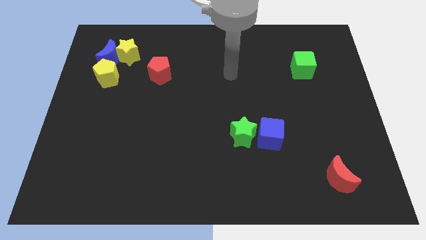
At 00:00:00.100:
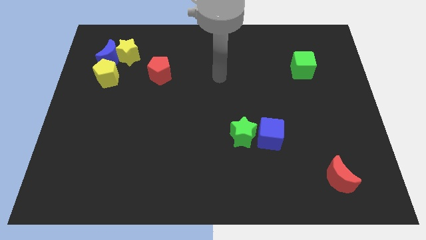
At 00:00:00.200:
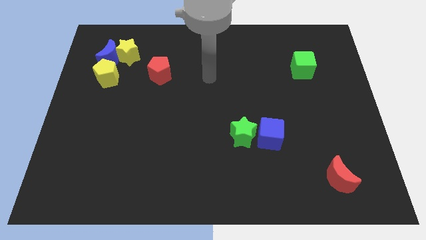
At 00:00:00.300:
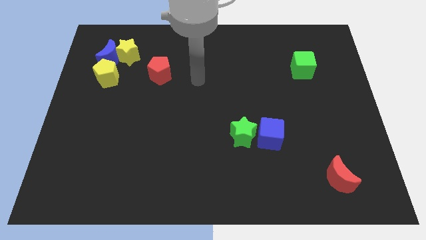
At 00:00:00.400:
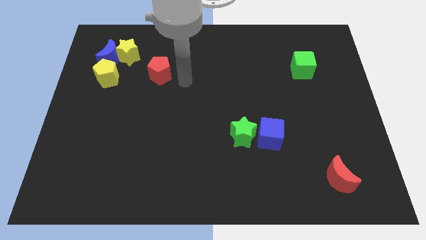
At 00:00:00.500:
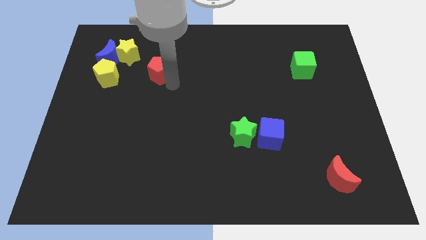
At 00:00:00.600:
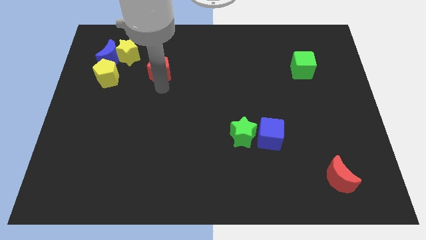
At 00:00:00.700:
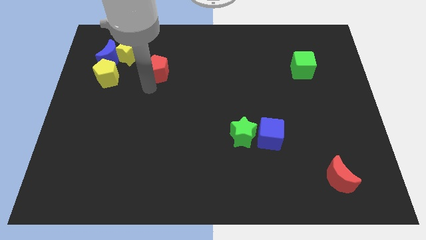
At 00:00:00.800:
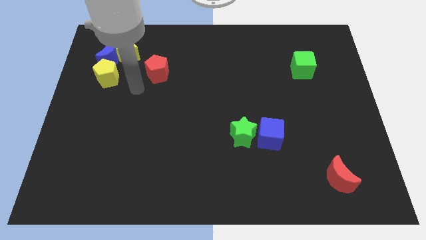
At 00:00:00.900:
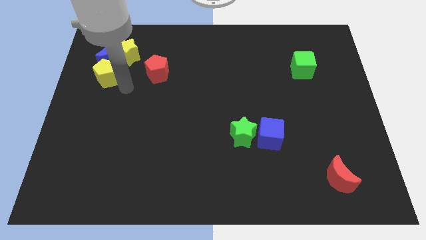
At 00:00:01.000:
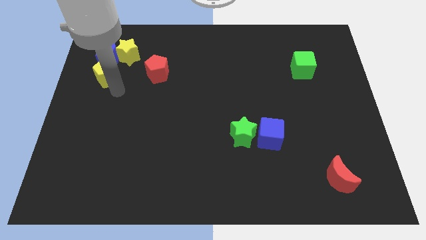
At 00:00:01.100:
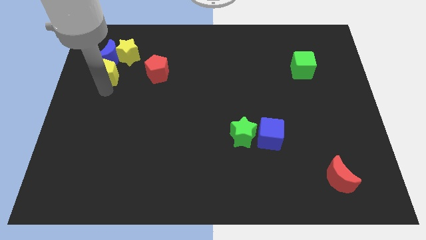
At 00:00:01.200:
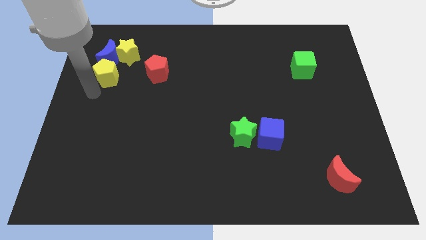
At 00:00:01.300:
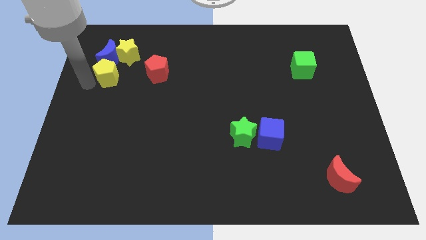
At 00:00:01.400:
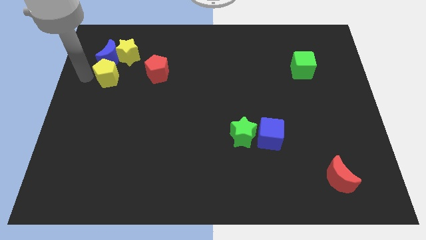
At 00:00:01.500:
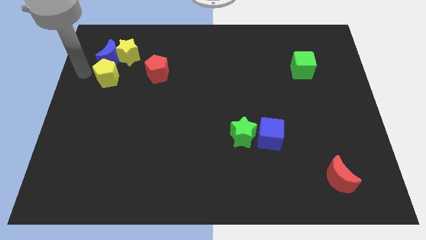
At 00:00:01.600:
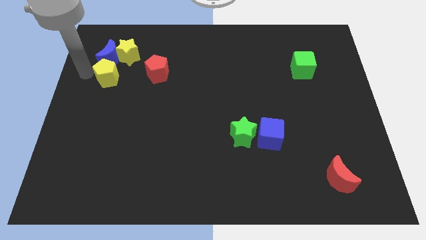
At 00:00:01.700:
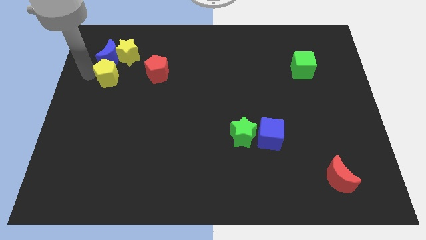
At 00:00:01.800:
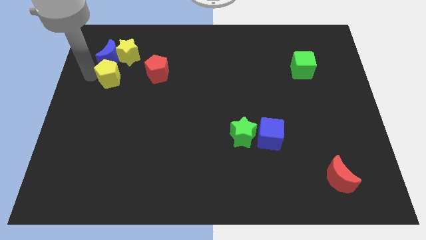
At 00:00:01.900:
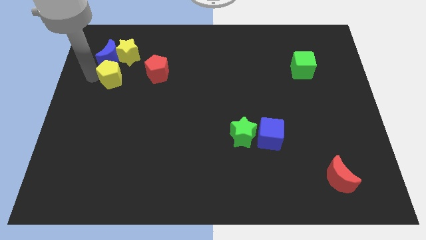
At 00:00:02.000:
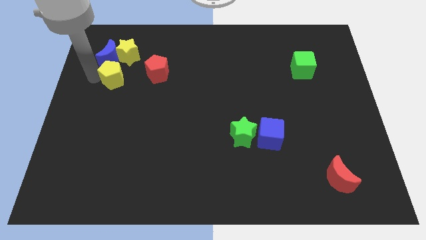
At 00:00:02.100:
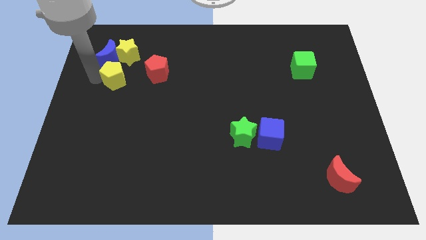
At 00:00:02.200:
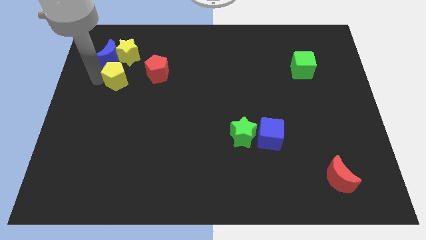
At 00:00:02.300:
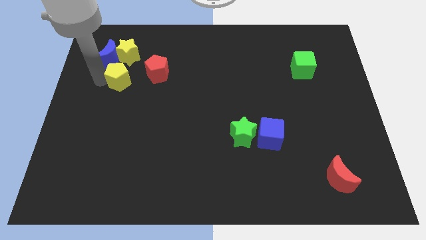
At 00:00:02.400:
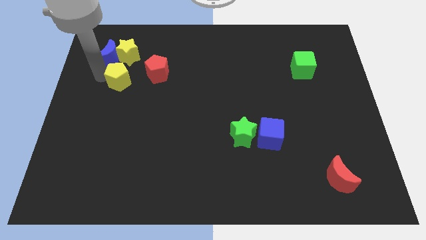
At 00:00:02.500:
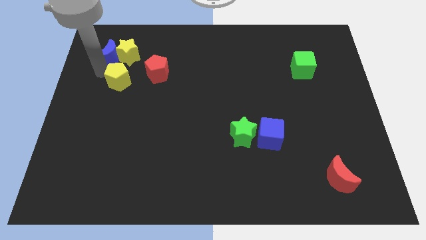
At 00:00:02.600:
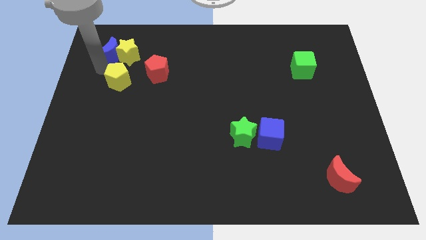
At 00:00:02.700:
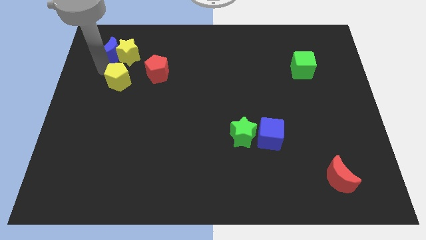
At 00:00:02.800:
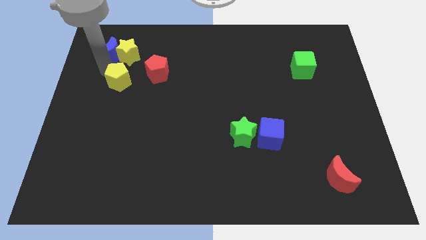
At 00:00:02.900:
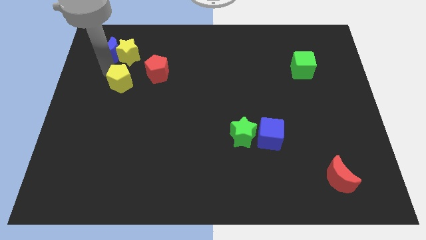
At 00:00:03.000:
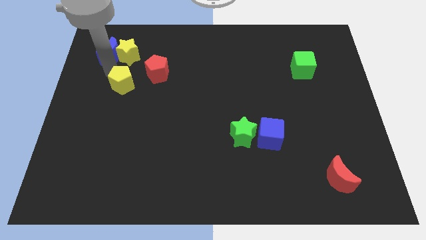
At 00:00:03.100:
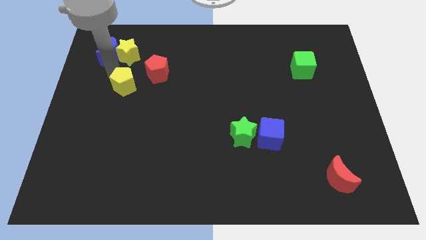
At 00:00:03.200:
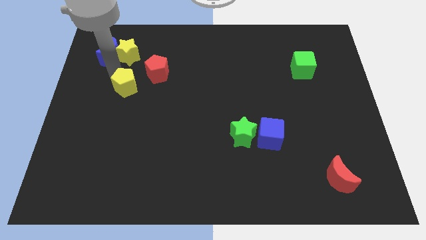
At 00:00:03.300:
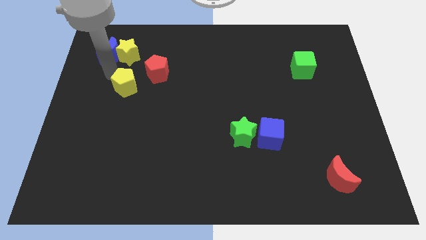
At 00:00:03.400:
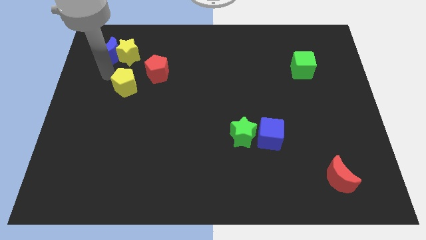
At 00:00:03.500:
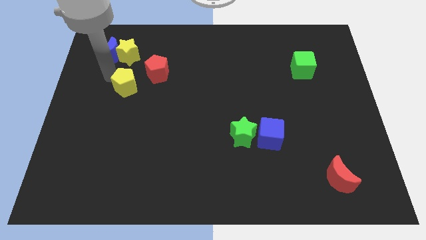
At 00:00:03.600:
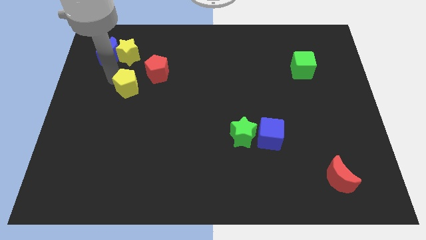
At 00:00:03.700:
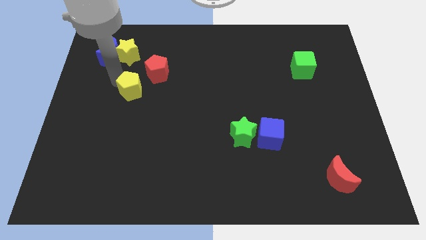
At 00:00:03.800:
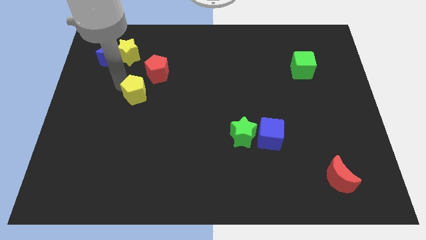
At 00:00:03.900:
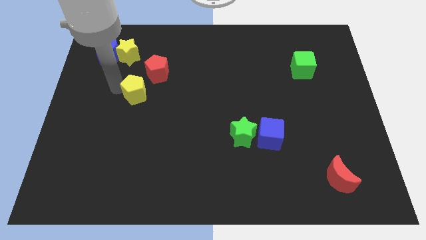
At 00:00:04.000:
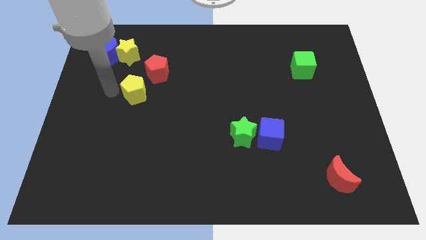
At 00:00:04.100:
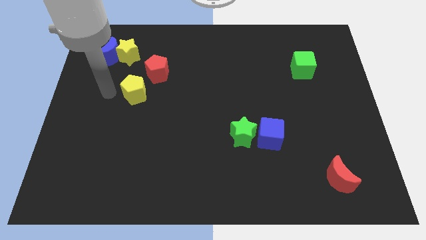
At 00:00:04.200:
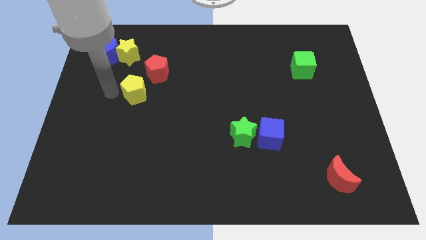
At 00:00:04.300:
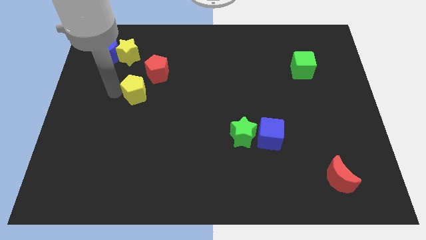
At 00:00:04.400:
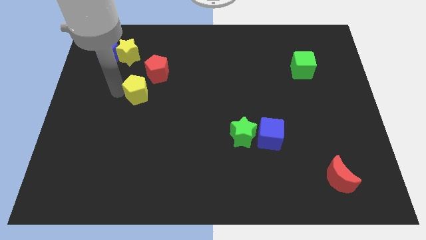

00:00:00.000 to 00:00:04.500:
slightly move the yellow pentagon to the right

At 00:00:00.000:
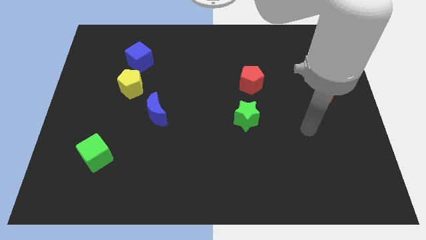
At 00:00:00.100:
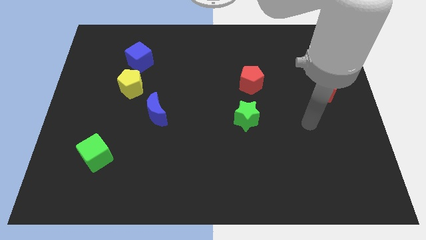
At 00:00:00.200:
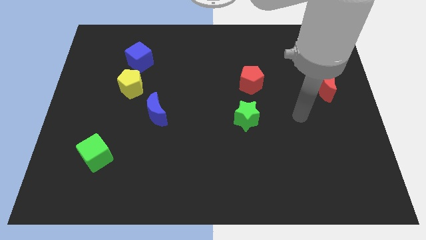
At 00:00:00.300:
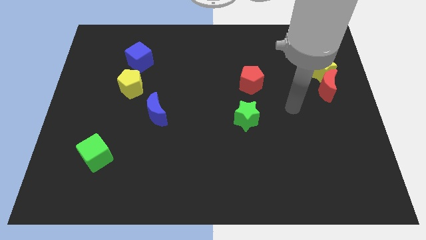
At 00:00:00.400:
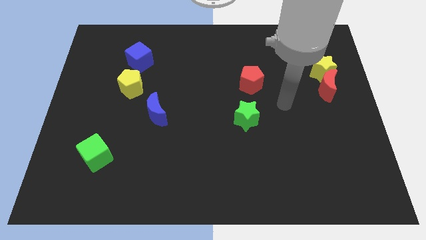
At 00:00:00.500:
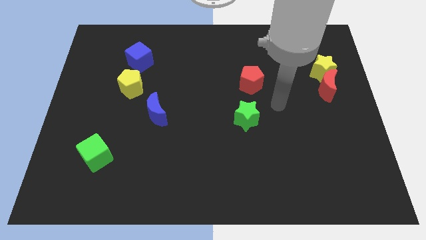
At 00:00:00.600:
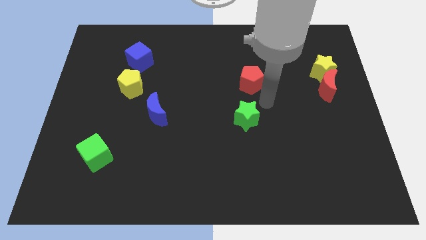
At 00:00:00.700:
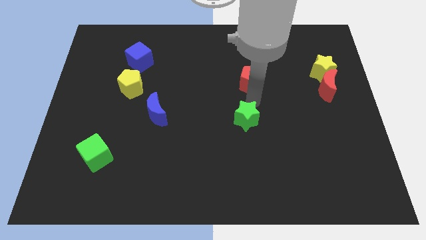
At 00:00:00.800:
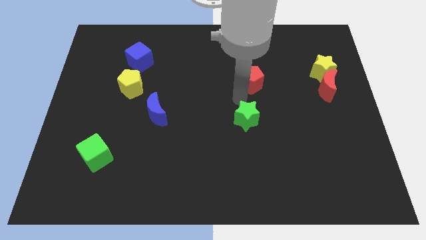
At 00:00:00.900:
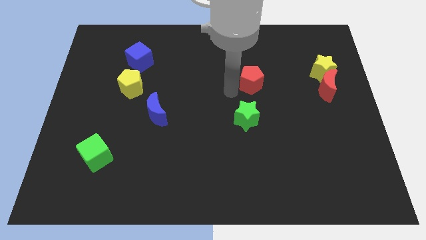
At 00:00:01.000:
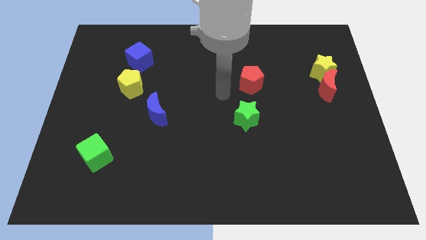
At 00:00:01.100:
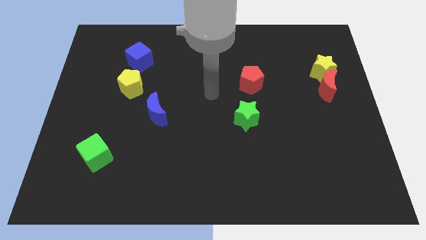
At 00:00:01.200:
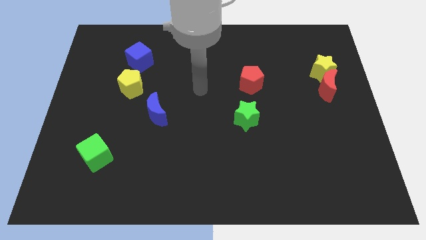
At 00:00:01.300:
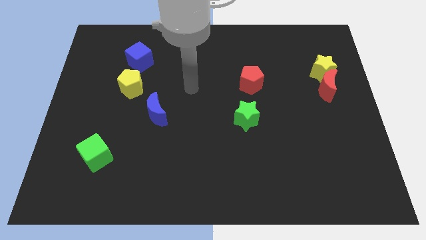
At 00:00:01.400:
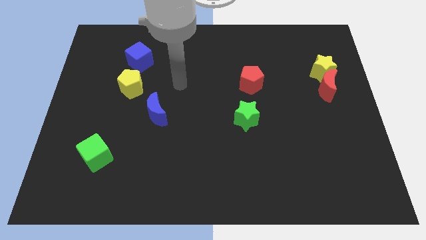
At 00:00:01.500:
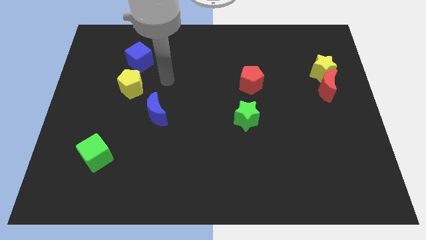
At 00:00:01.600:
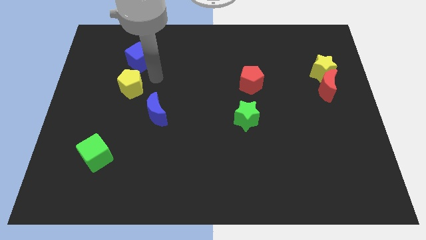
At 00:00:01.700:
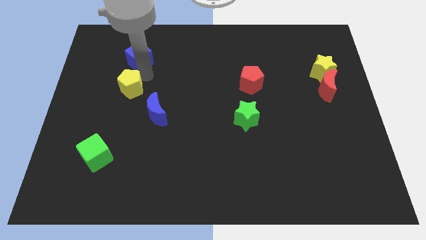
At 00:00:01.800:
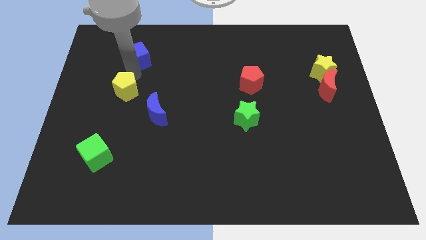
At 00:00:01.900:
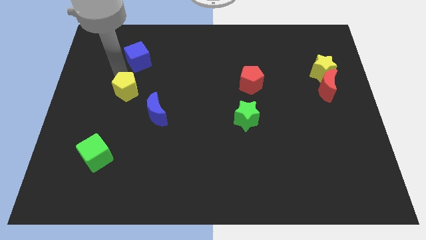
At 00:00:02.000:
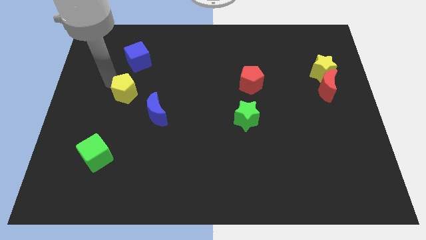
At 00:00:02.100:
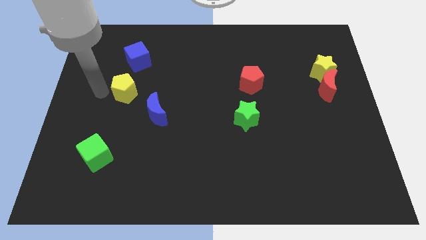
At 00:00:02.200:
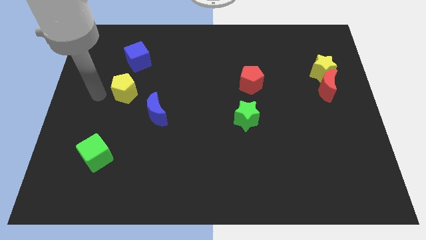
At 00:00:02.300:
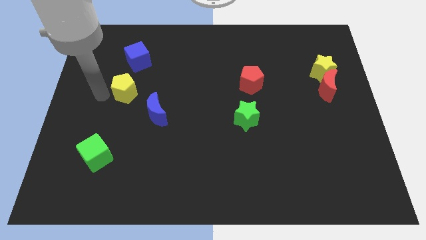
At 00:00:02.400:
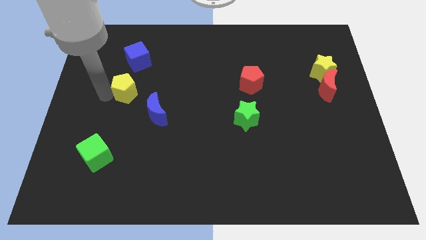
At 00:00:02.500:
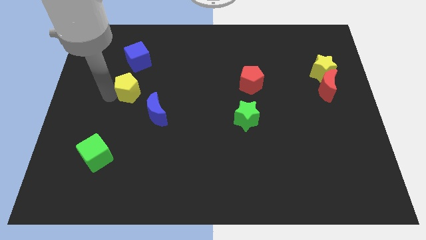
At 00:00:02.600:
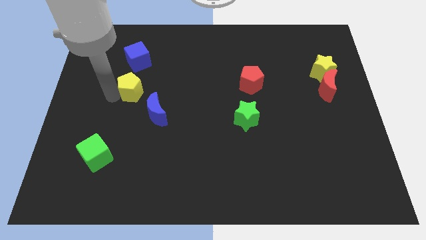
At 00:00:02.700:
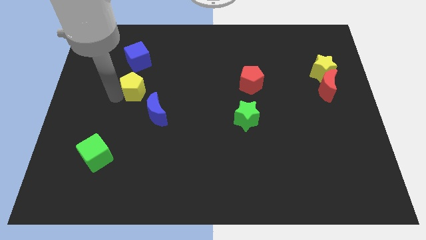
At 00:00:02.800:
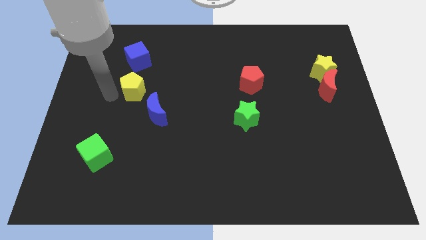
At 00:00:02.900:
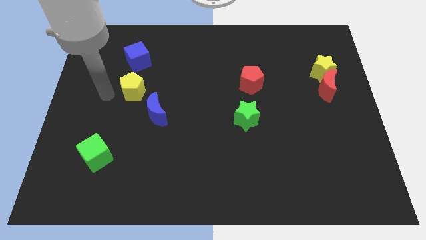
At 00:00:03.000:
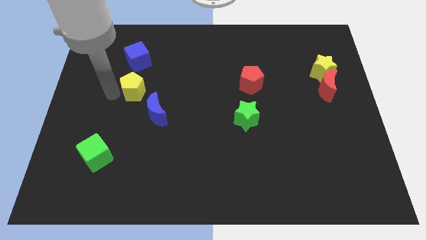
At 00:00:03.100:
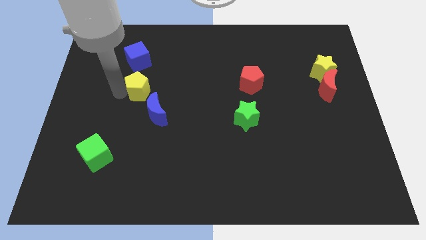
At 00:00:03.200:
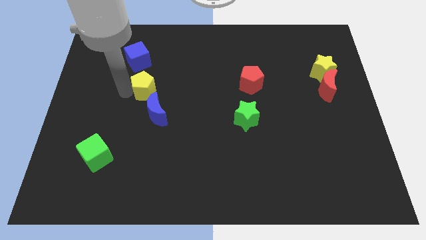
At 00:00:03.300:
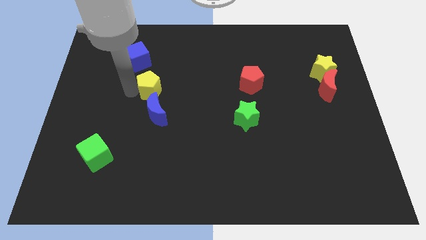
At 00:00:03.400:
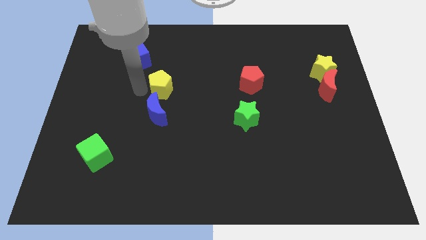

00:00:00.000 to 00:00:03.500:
slightly move the yellow pentagon right
